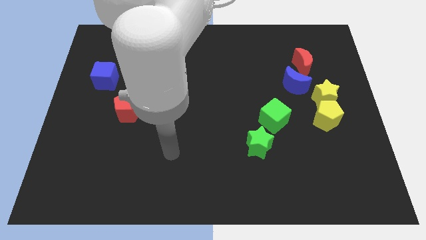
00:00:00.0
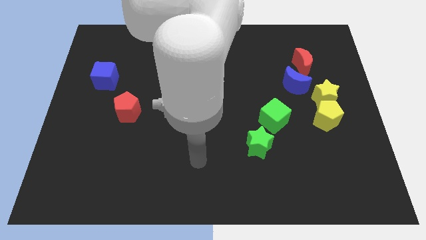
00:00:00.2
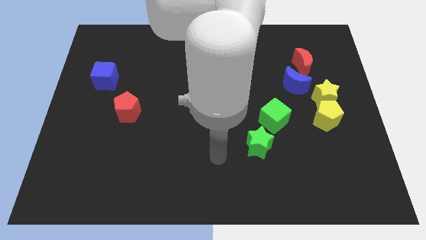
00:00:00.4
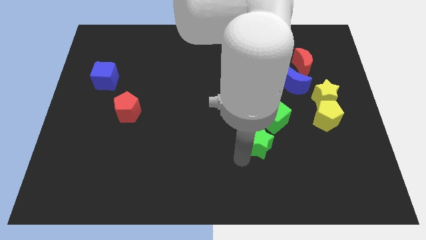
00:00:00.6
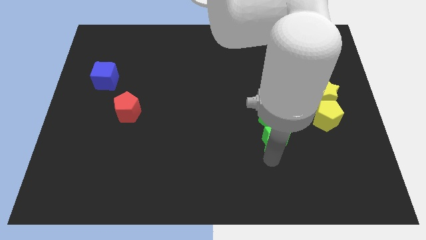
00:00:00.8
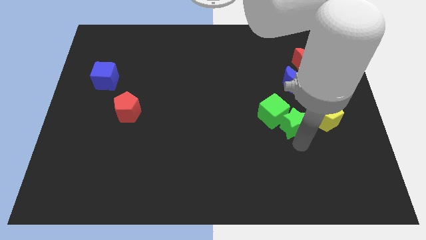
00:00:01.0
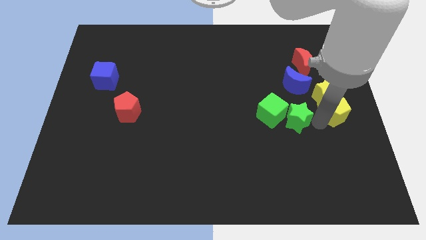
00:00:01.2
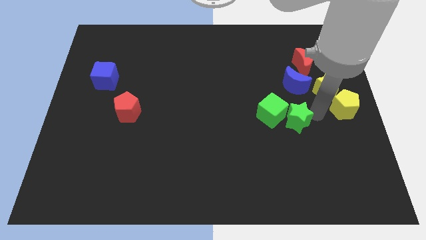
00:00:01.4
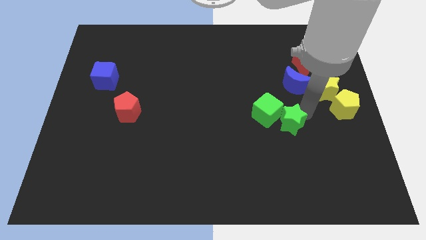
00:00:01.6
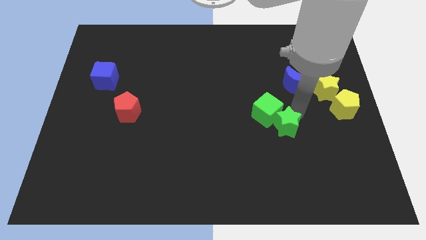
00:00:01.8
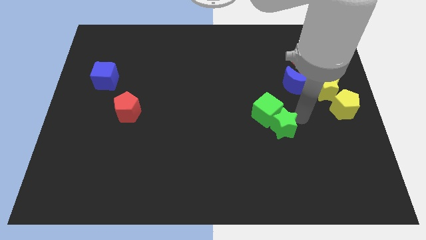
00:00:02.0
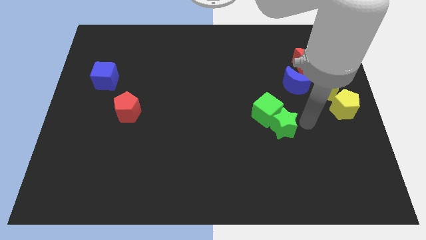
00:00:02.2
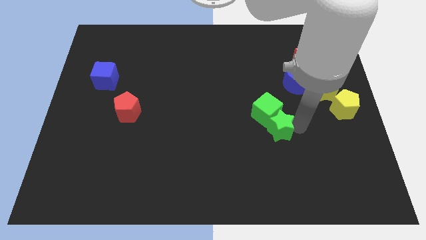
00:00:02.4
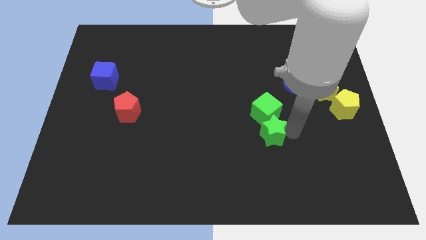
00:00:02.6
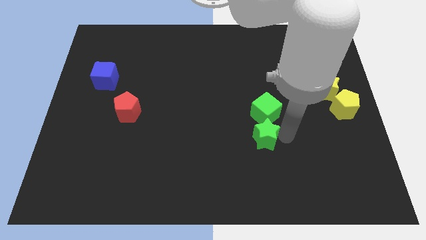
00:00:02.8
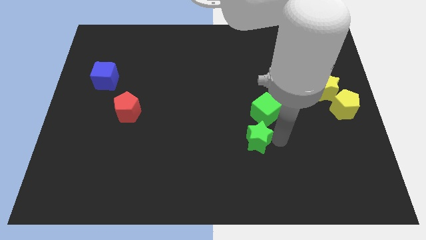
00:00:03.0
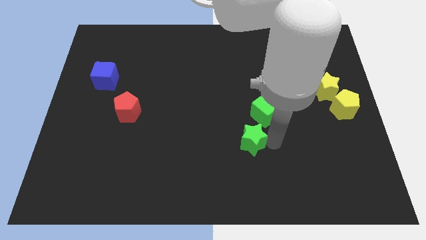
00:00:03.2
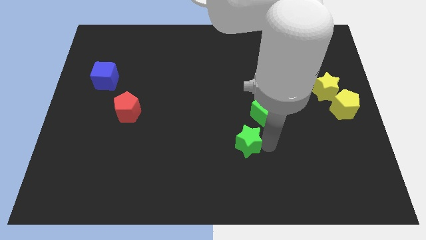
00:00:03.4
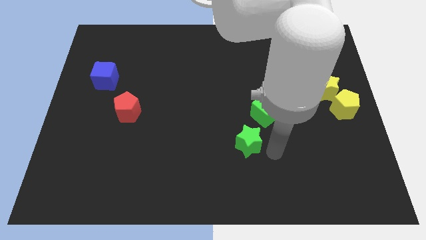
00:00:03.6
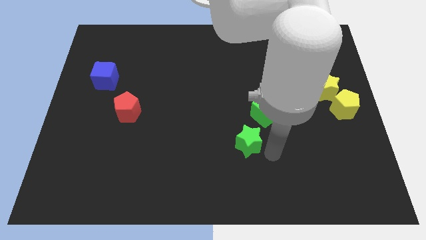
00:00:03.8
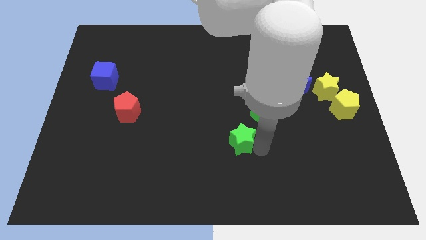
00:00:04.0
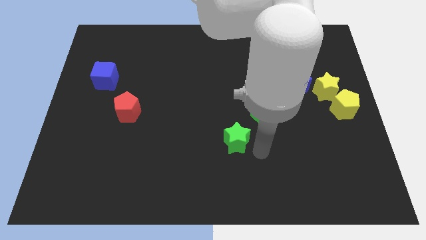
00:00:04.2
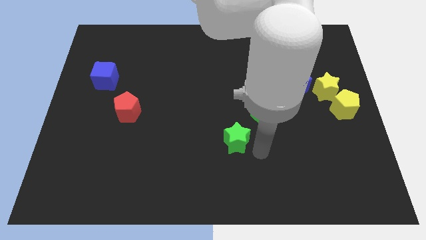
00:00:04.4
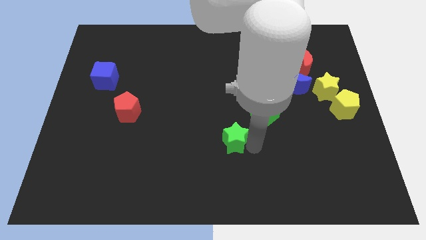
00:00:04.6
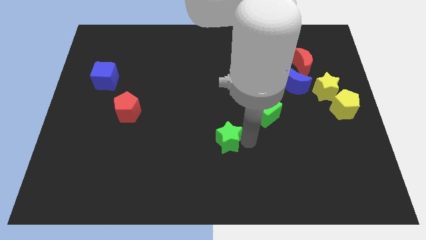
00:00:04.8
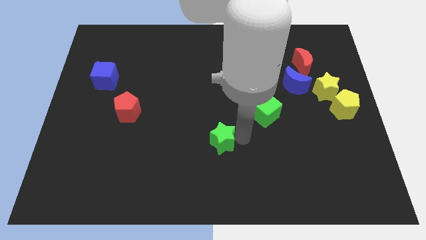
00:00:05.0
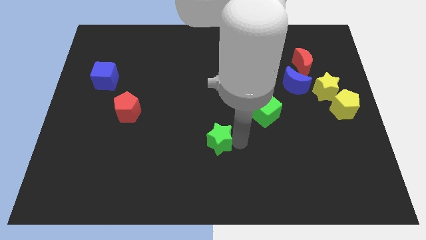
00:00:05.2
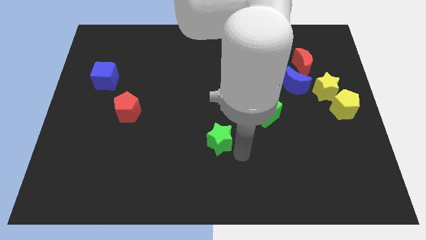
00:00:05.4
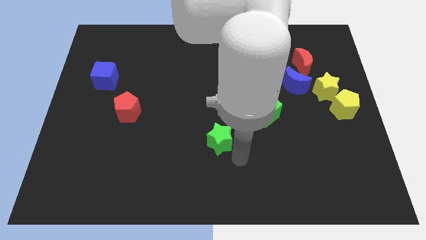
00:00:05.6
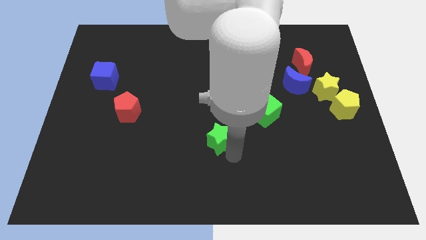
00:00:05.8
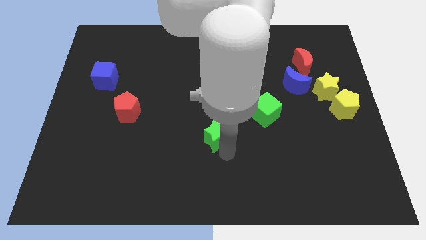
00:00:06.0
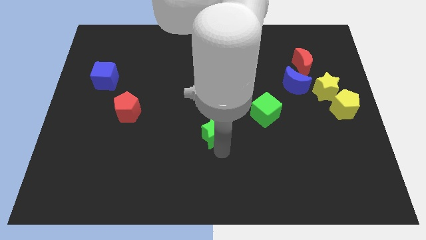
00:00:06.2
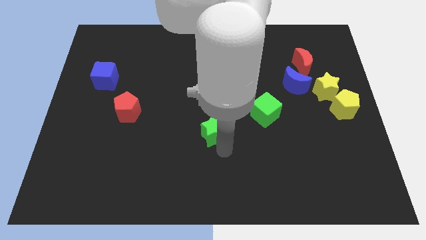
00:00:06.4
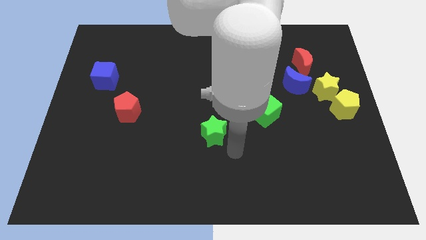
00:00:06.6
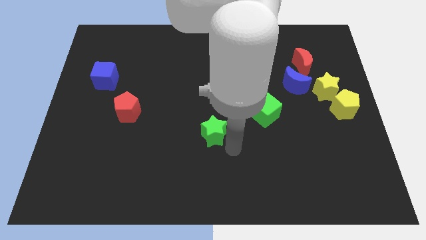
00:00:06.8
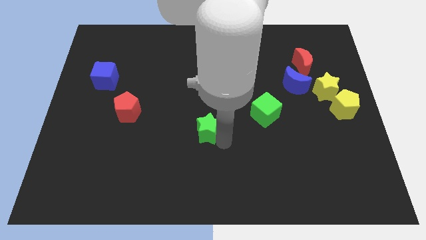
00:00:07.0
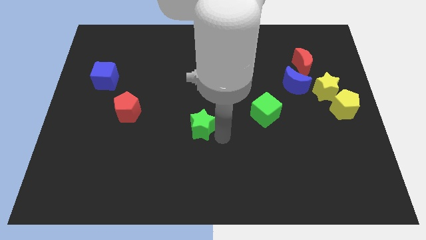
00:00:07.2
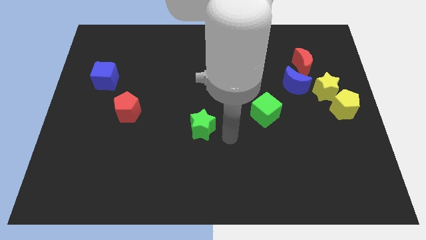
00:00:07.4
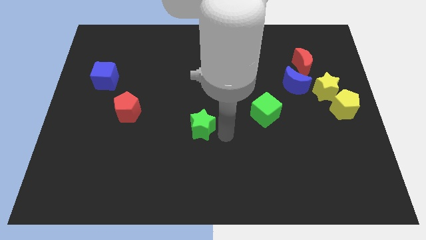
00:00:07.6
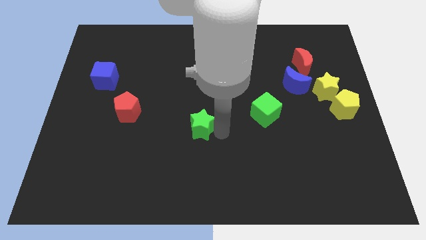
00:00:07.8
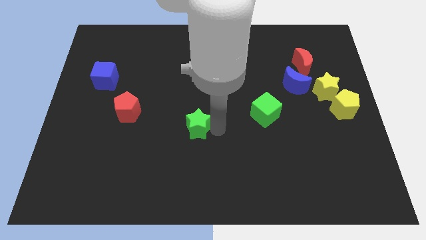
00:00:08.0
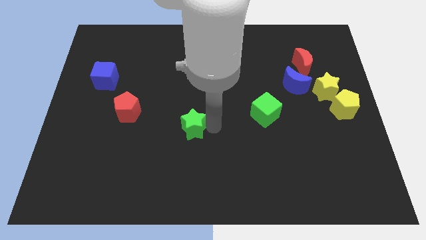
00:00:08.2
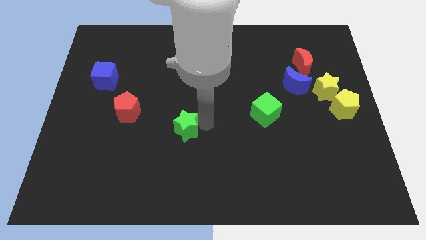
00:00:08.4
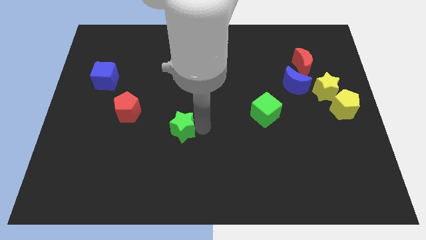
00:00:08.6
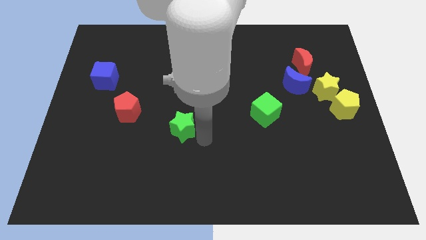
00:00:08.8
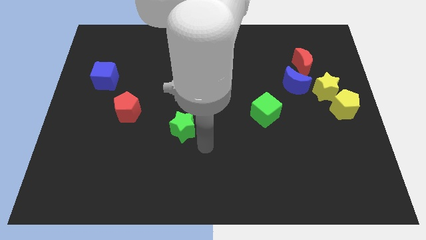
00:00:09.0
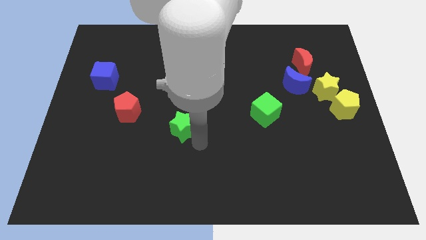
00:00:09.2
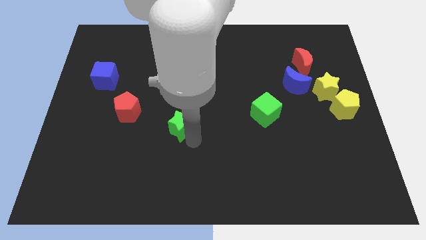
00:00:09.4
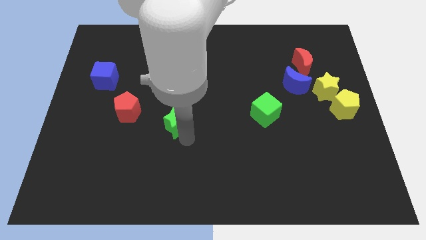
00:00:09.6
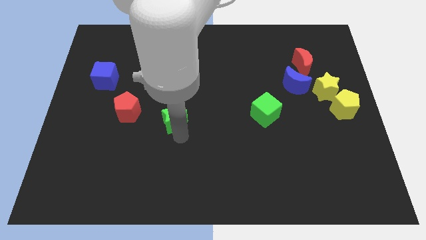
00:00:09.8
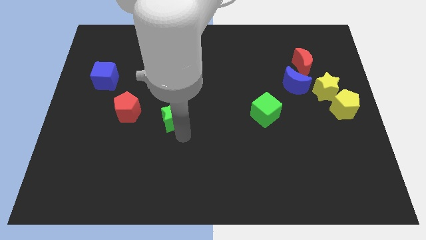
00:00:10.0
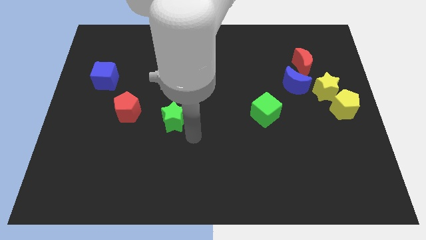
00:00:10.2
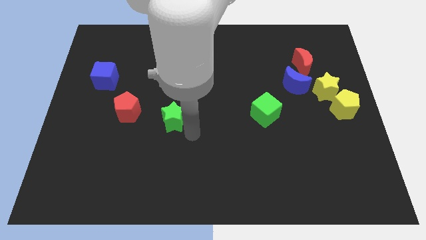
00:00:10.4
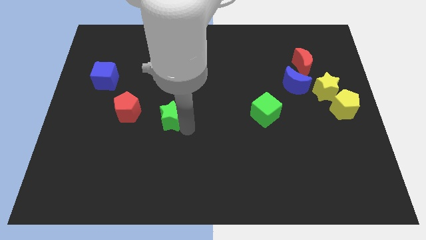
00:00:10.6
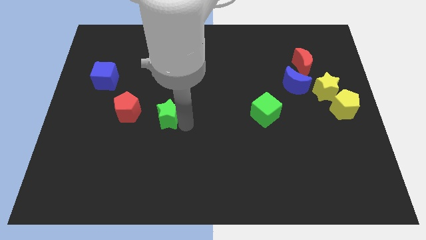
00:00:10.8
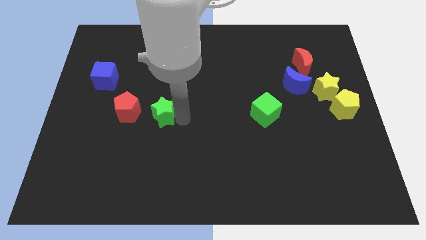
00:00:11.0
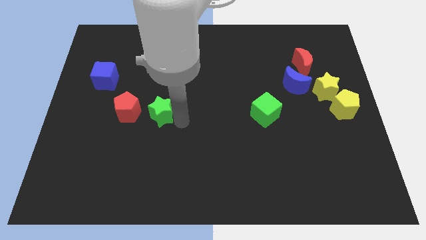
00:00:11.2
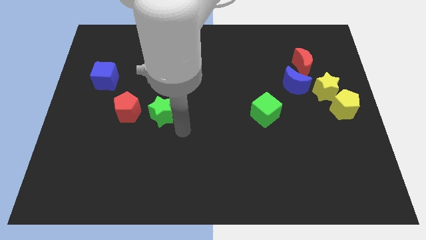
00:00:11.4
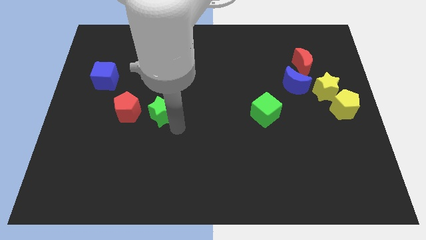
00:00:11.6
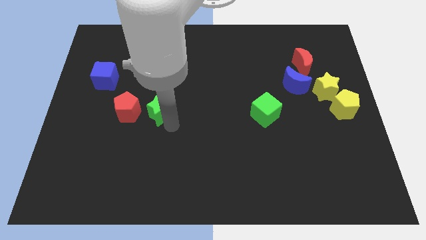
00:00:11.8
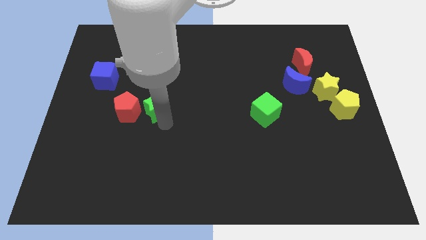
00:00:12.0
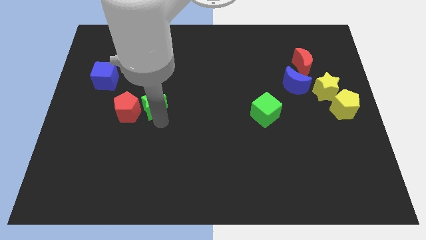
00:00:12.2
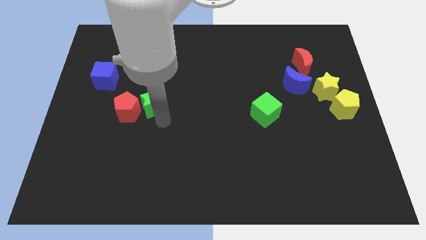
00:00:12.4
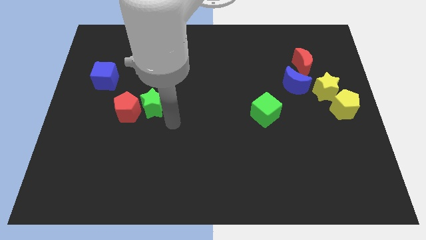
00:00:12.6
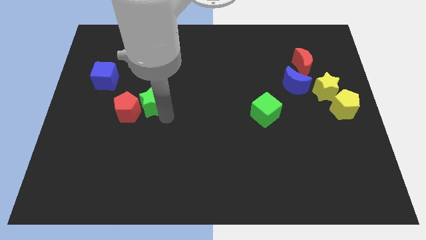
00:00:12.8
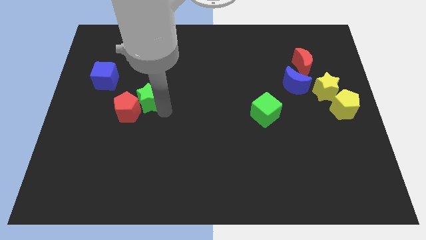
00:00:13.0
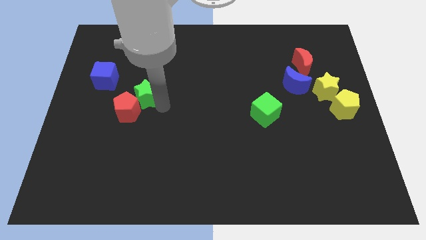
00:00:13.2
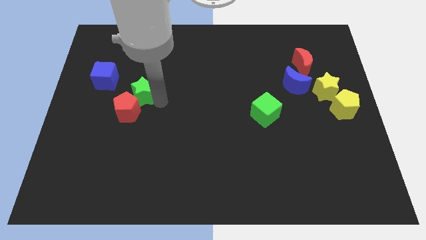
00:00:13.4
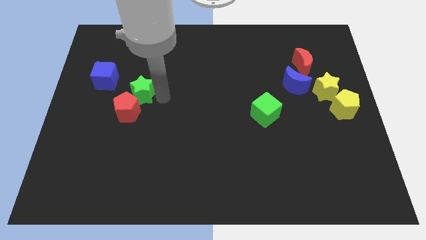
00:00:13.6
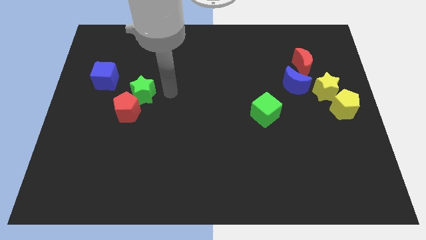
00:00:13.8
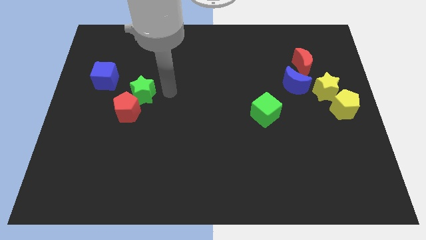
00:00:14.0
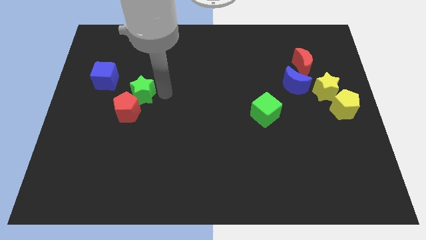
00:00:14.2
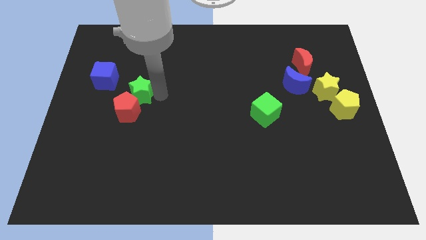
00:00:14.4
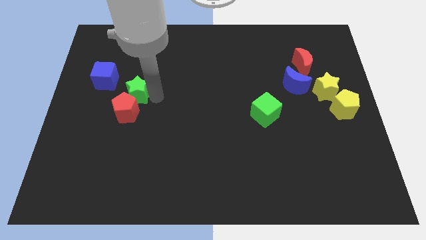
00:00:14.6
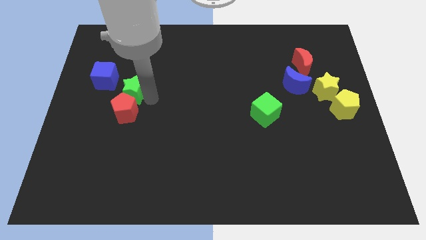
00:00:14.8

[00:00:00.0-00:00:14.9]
move the green star to the top left side of the red pentagon

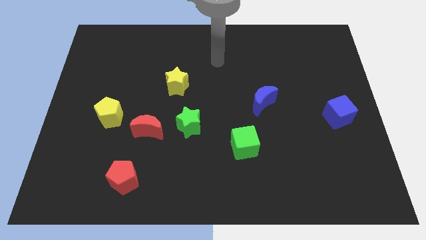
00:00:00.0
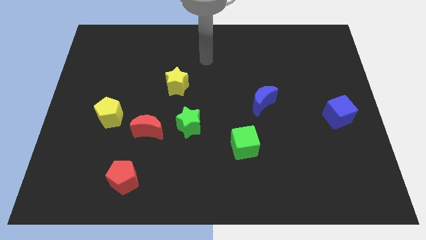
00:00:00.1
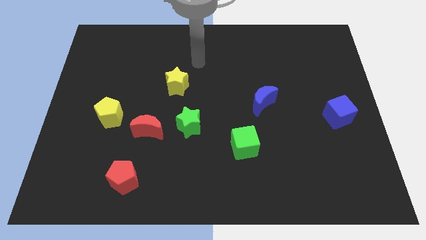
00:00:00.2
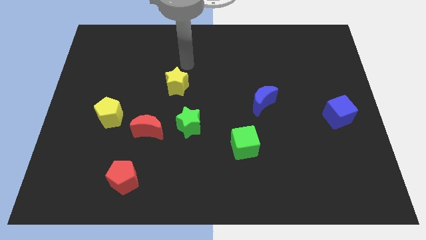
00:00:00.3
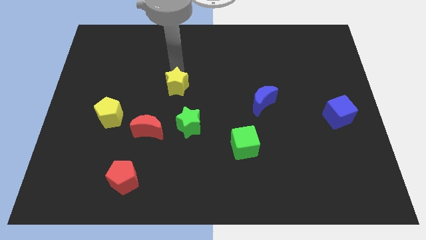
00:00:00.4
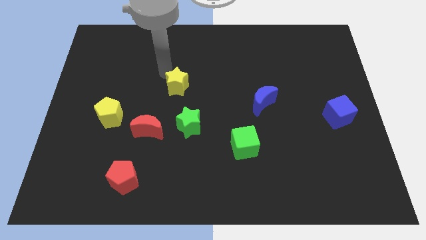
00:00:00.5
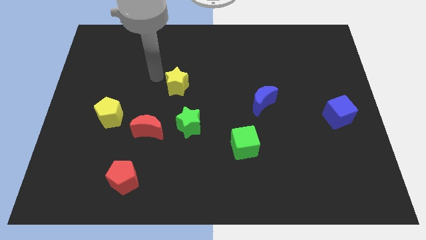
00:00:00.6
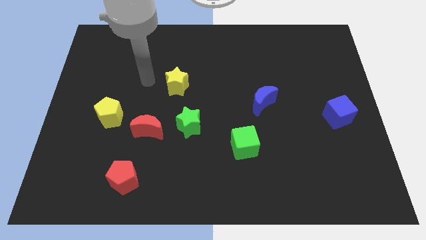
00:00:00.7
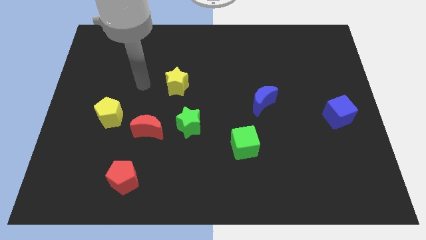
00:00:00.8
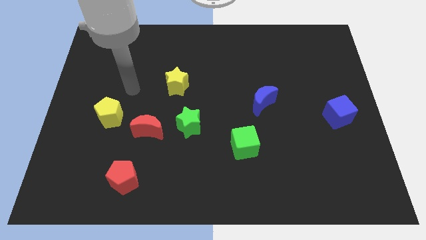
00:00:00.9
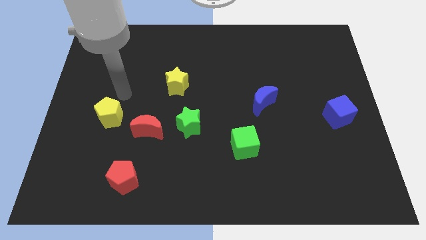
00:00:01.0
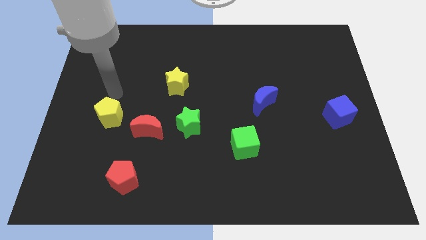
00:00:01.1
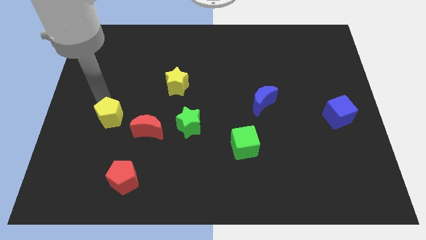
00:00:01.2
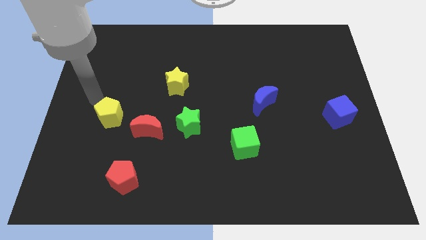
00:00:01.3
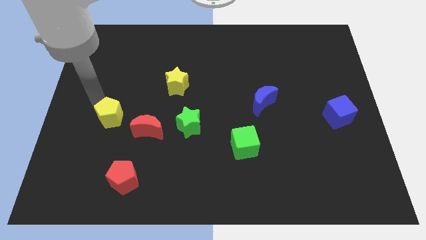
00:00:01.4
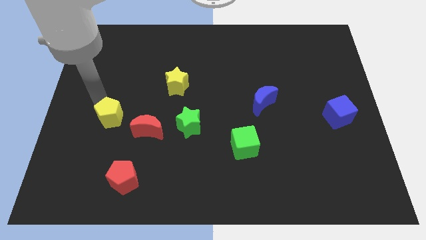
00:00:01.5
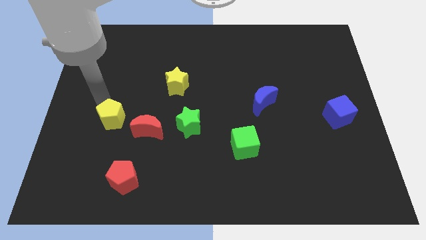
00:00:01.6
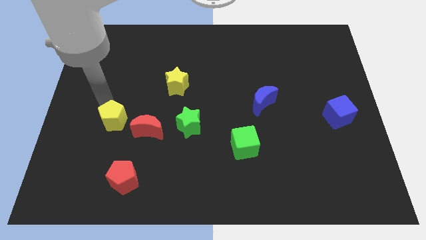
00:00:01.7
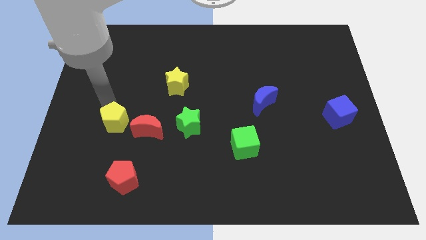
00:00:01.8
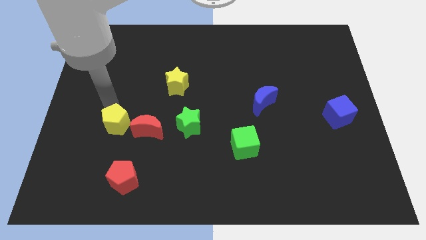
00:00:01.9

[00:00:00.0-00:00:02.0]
move the yellow pentagon above the red pentagon
